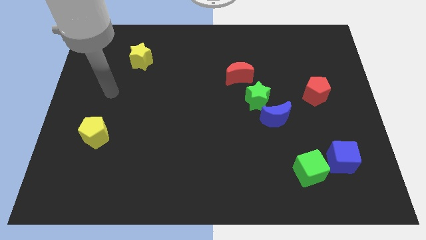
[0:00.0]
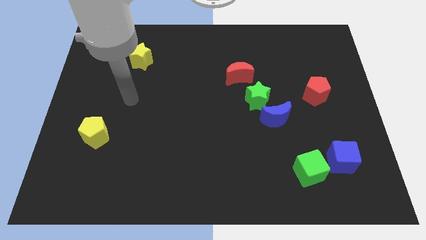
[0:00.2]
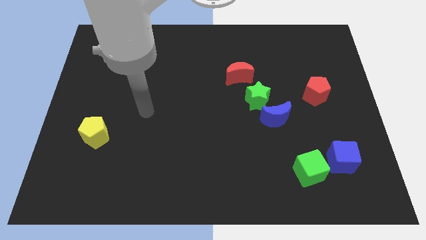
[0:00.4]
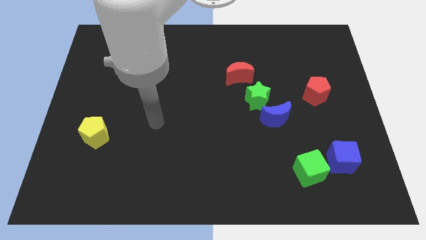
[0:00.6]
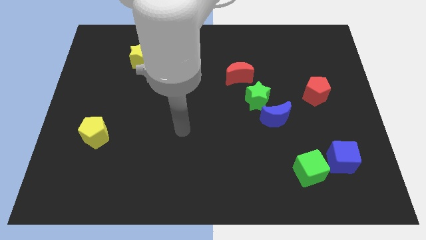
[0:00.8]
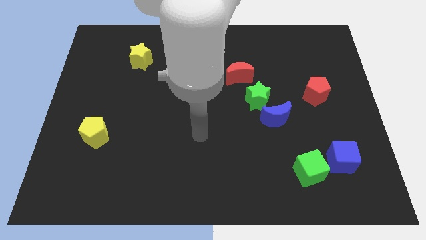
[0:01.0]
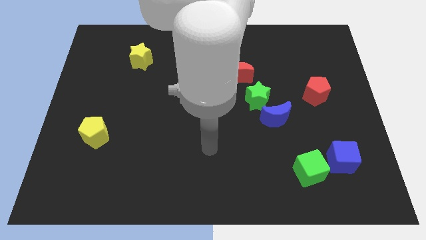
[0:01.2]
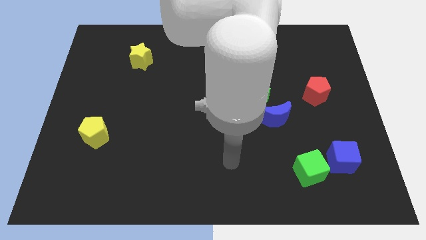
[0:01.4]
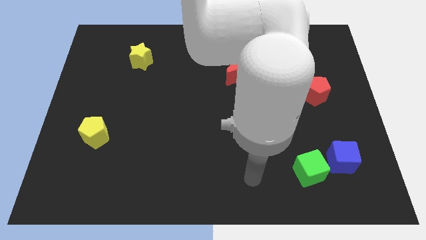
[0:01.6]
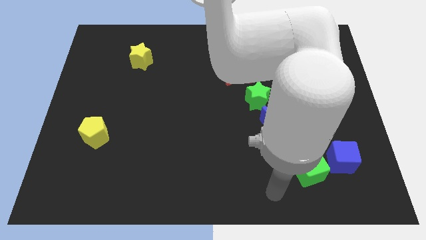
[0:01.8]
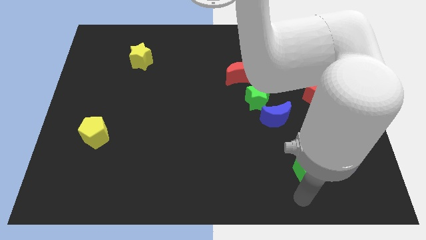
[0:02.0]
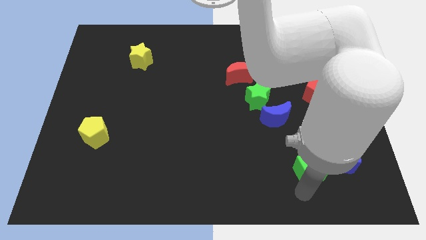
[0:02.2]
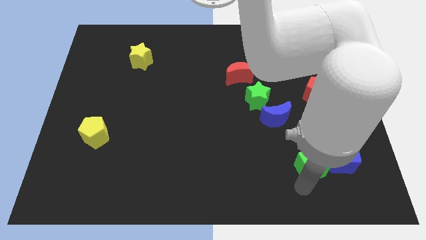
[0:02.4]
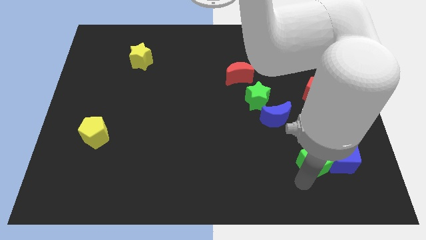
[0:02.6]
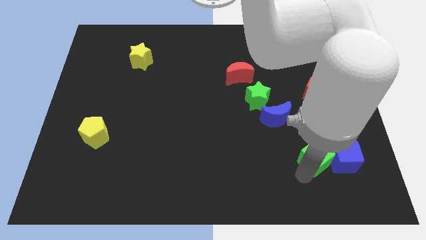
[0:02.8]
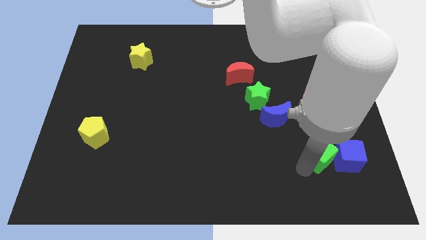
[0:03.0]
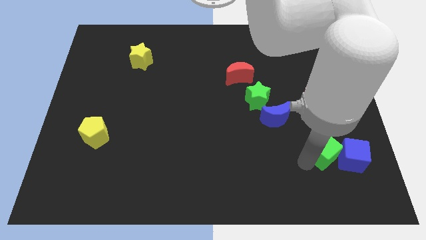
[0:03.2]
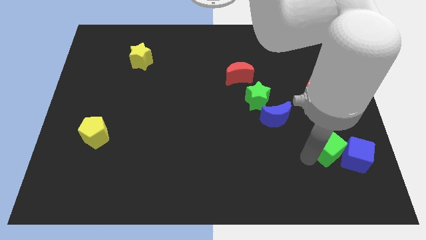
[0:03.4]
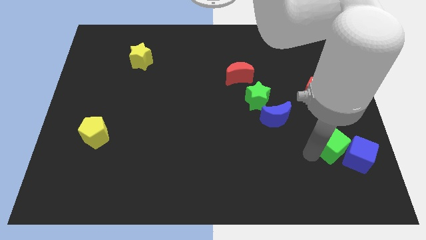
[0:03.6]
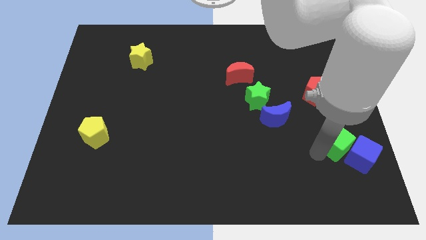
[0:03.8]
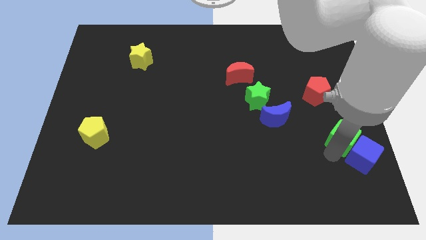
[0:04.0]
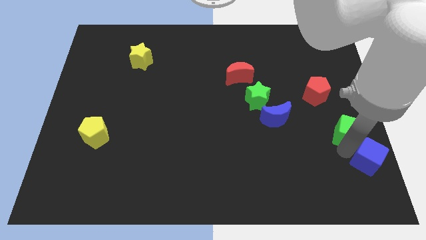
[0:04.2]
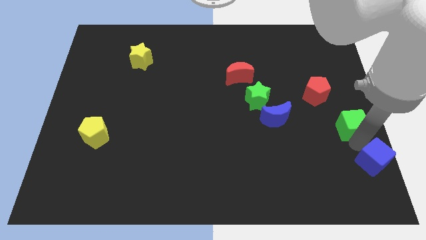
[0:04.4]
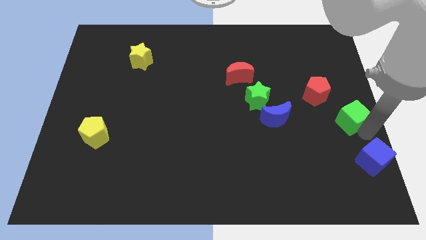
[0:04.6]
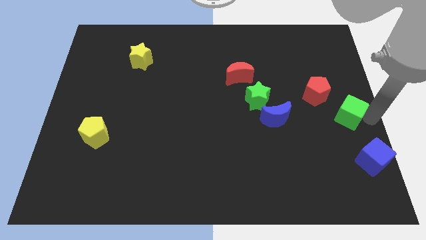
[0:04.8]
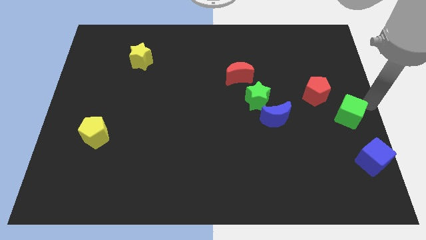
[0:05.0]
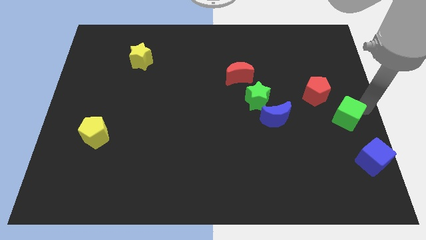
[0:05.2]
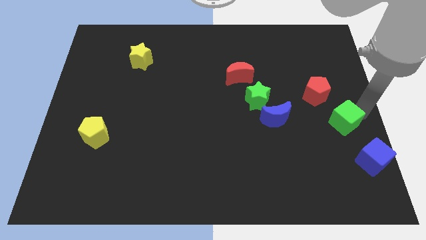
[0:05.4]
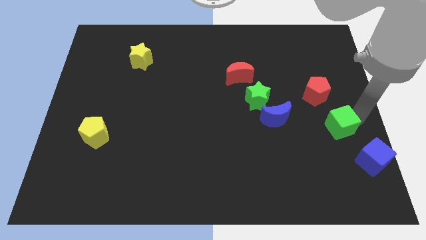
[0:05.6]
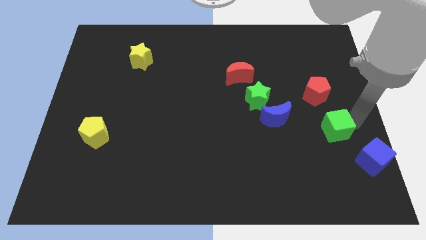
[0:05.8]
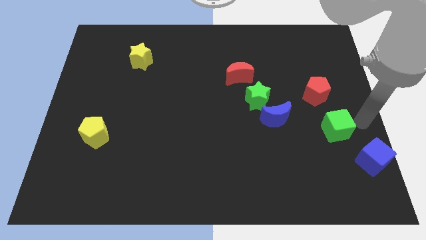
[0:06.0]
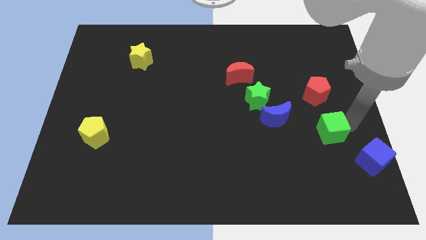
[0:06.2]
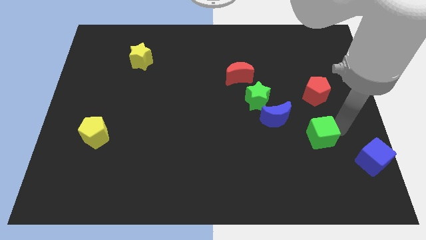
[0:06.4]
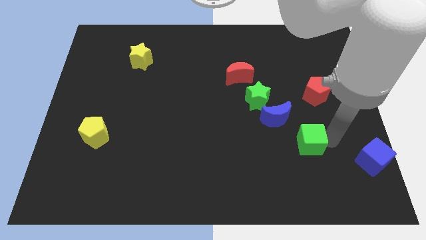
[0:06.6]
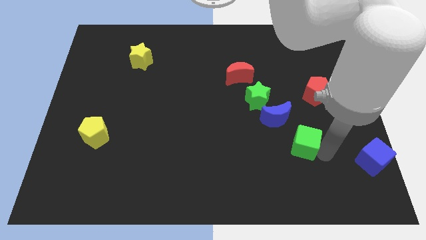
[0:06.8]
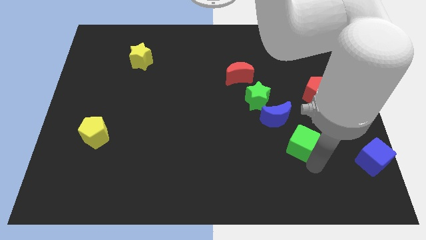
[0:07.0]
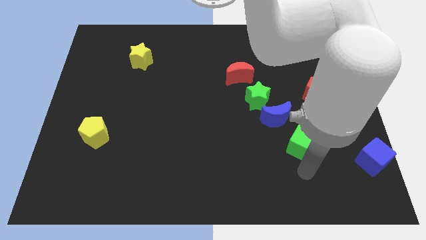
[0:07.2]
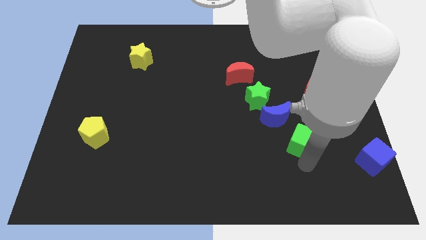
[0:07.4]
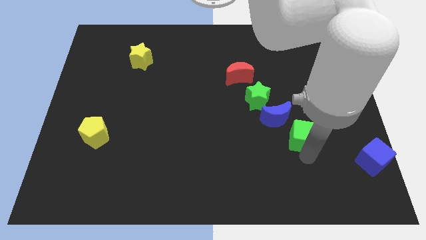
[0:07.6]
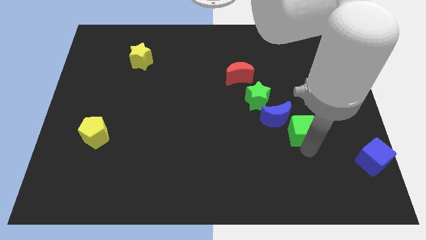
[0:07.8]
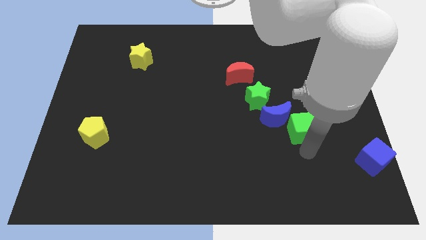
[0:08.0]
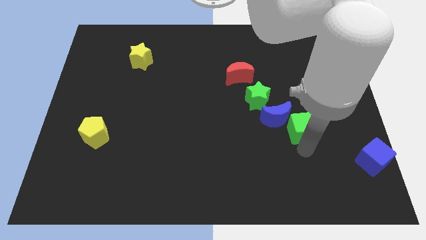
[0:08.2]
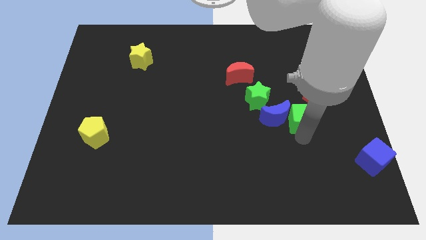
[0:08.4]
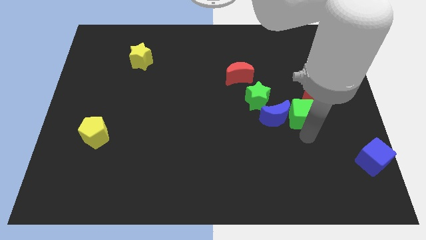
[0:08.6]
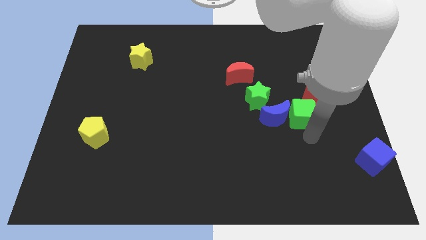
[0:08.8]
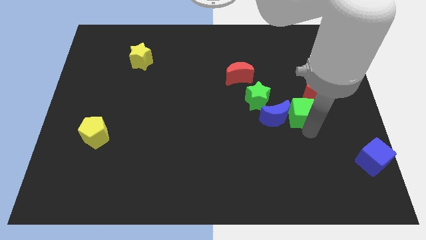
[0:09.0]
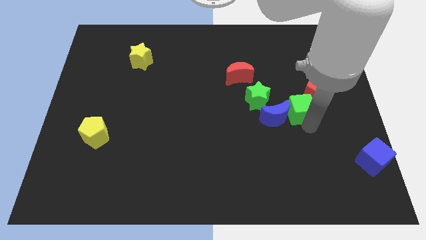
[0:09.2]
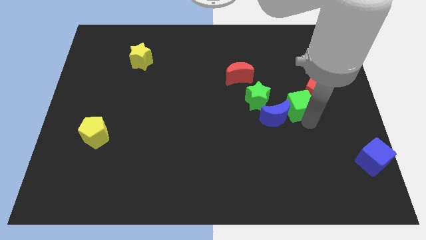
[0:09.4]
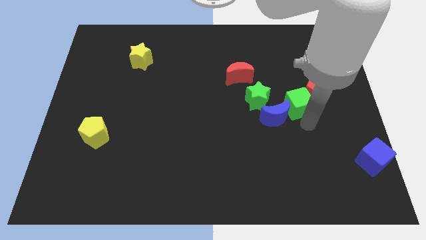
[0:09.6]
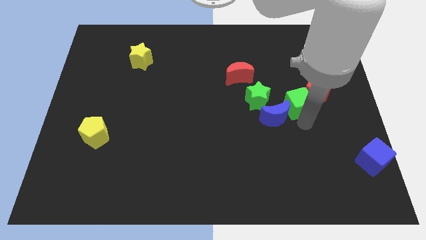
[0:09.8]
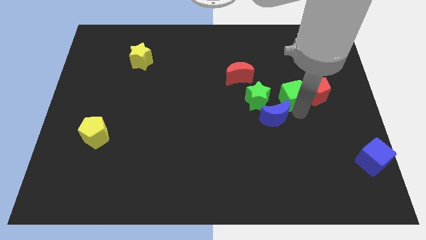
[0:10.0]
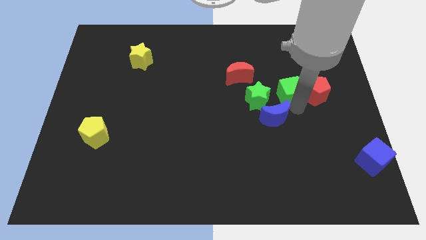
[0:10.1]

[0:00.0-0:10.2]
push the green cube up

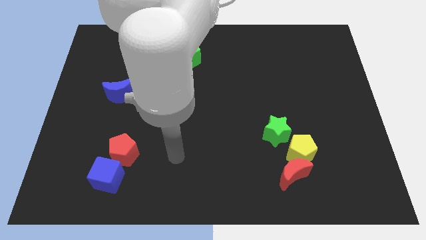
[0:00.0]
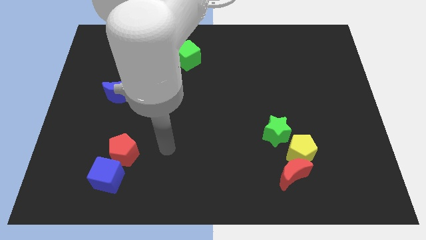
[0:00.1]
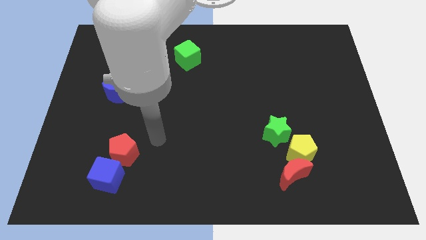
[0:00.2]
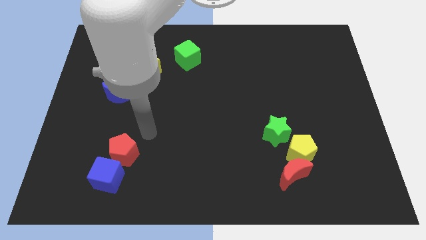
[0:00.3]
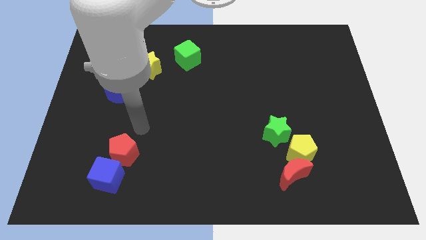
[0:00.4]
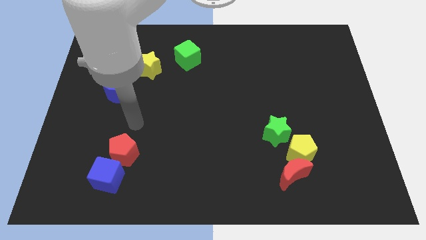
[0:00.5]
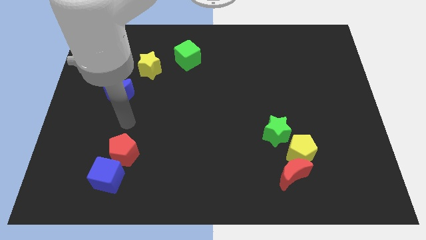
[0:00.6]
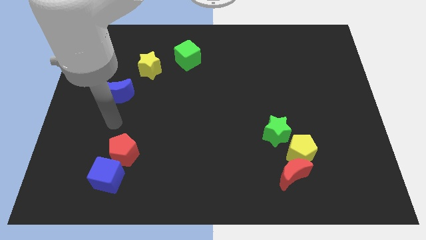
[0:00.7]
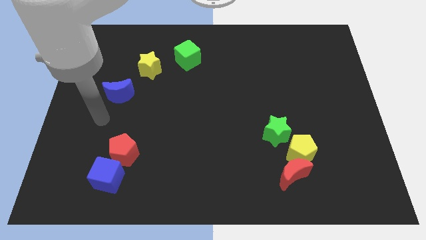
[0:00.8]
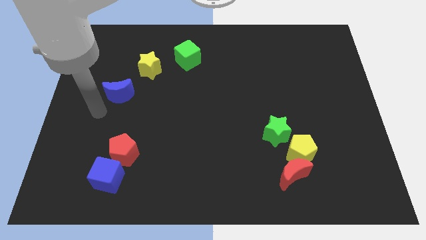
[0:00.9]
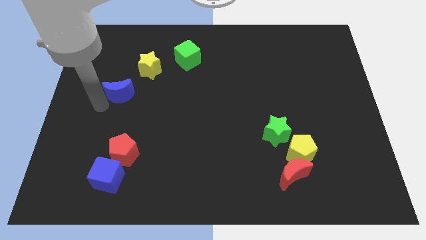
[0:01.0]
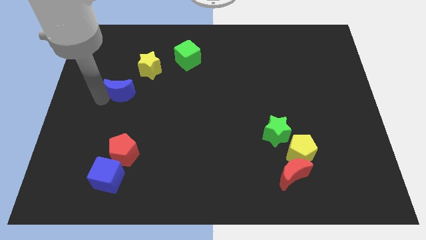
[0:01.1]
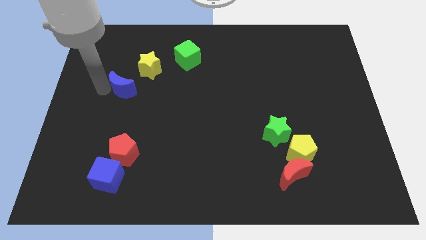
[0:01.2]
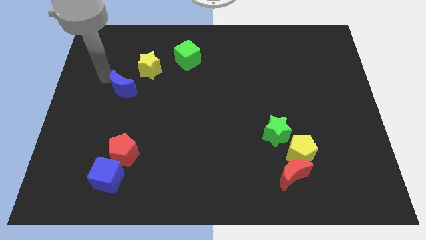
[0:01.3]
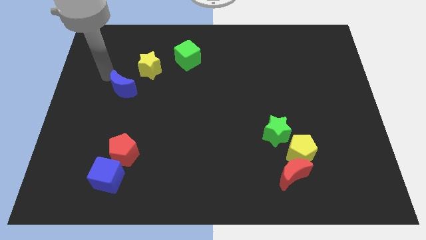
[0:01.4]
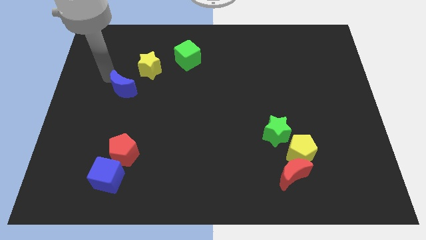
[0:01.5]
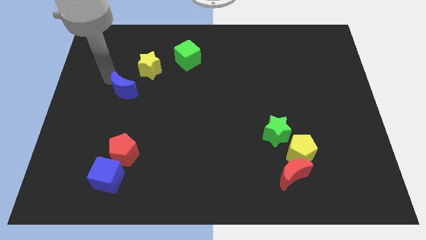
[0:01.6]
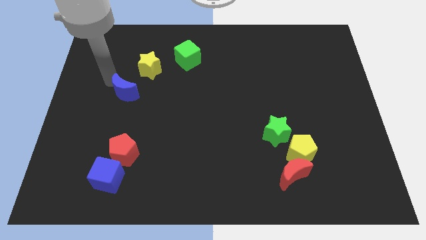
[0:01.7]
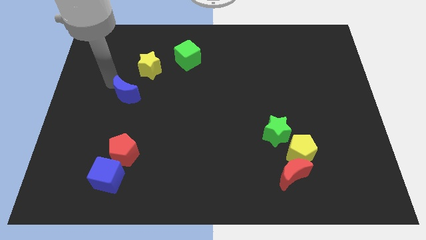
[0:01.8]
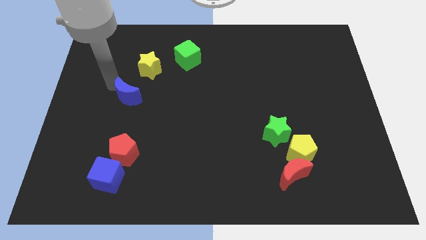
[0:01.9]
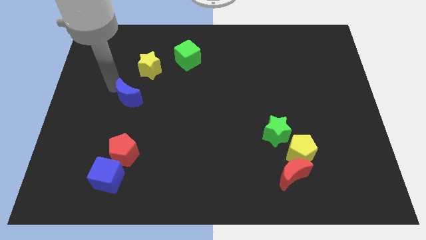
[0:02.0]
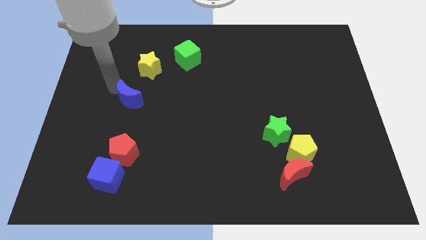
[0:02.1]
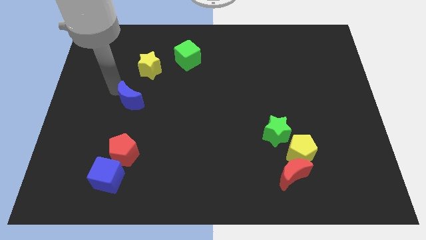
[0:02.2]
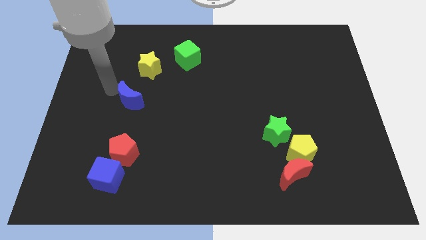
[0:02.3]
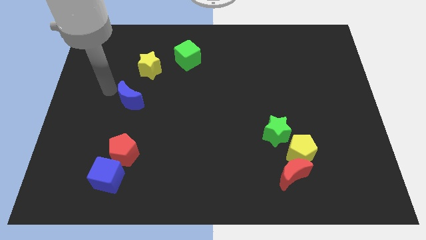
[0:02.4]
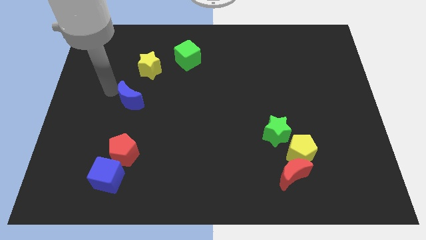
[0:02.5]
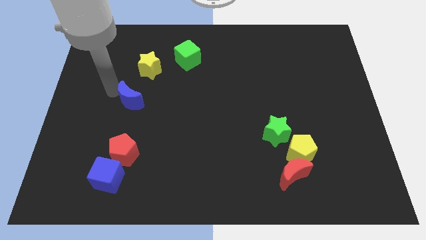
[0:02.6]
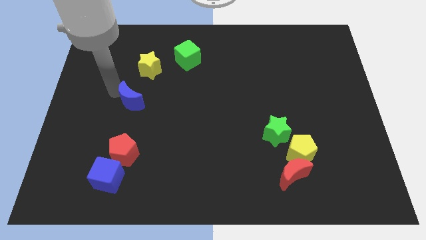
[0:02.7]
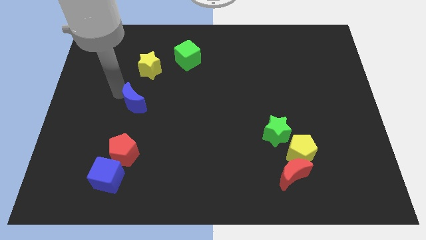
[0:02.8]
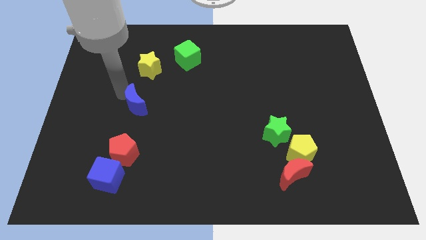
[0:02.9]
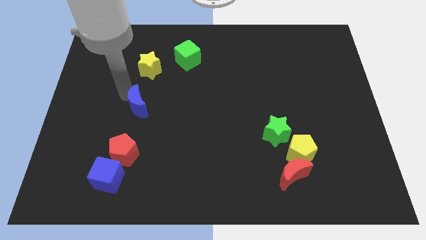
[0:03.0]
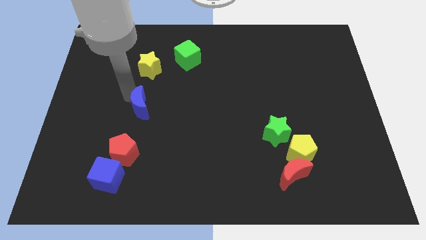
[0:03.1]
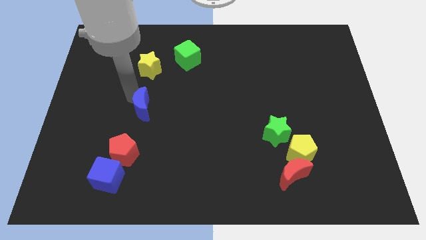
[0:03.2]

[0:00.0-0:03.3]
slide the blue moon down and to the right diagonally a bit
